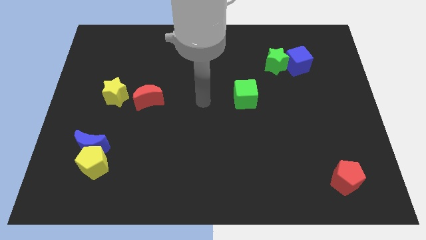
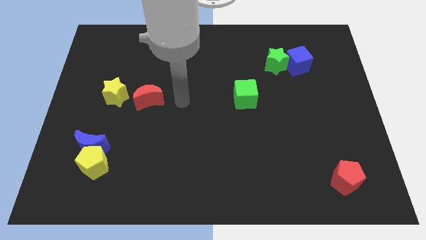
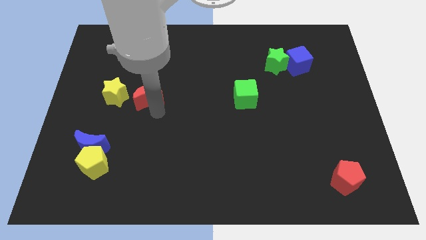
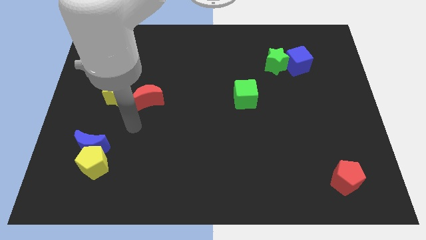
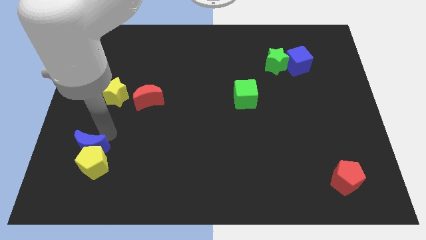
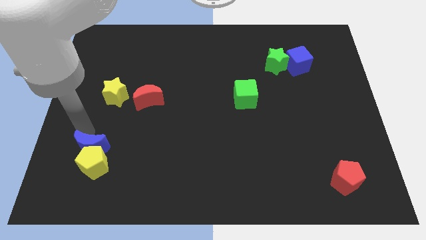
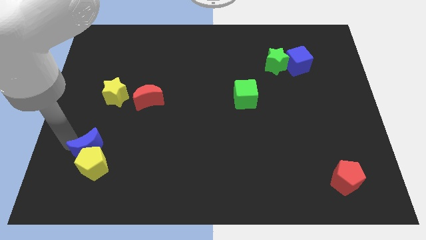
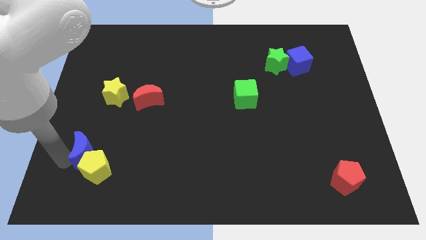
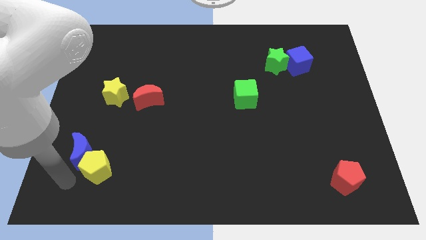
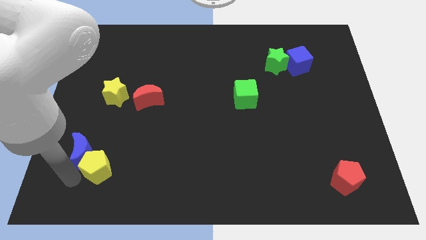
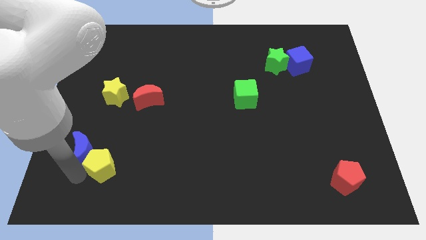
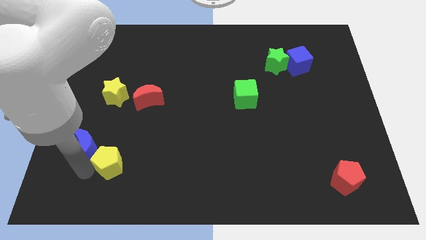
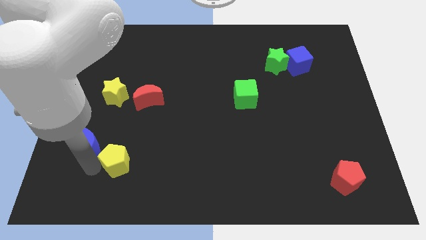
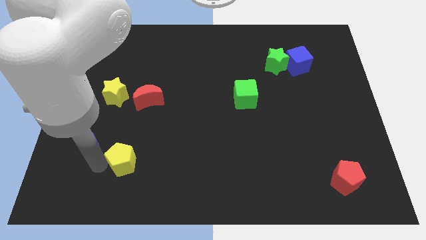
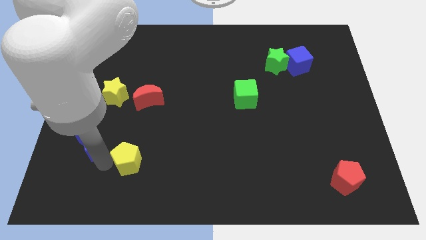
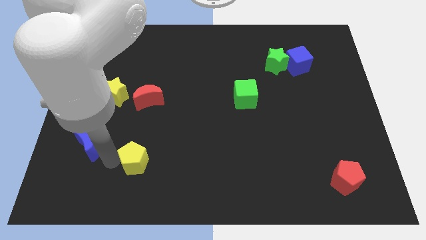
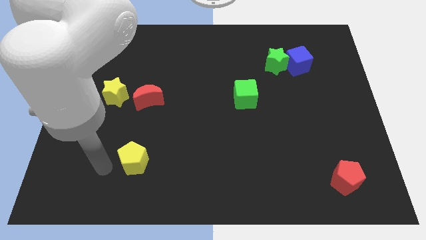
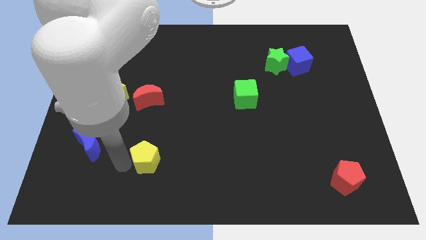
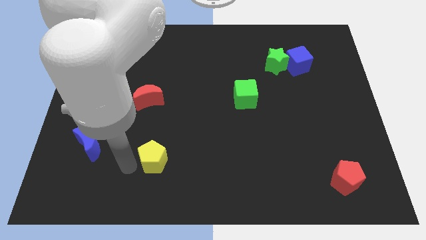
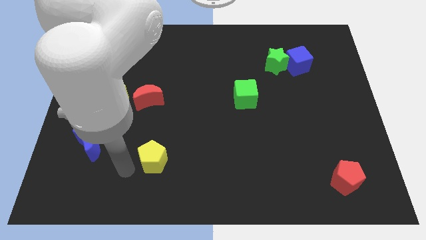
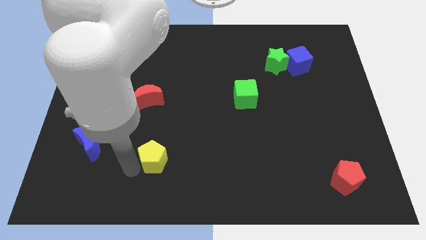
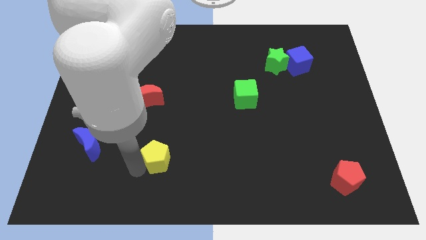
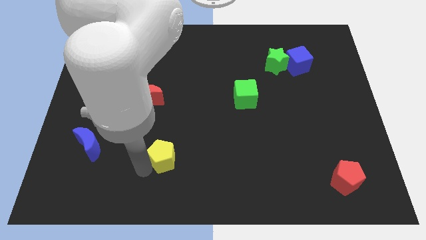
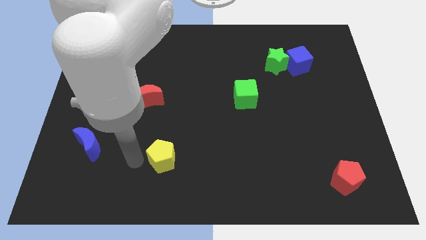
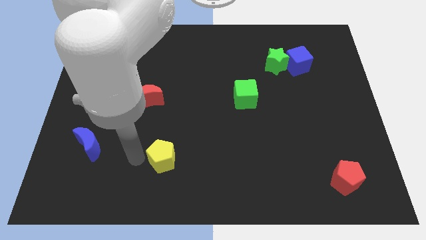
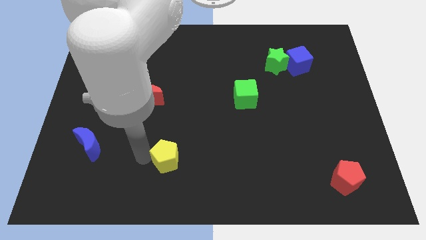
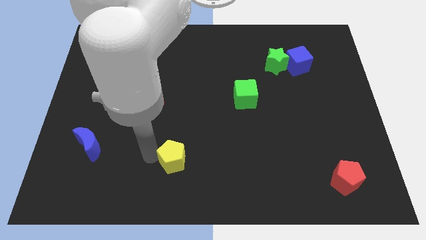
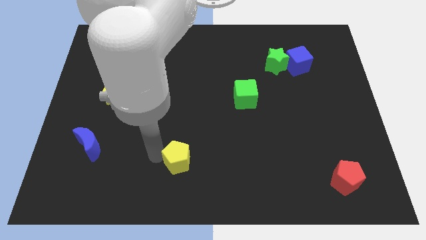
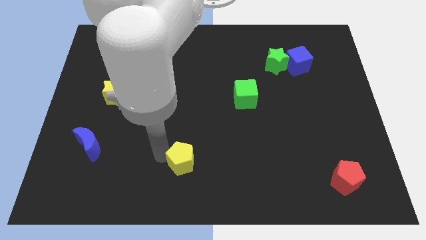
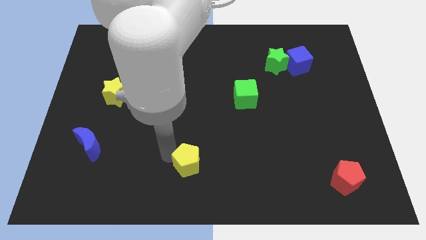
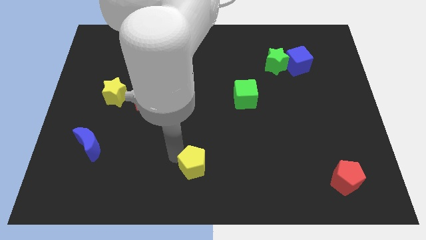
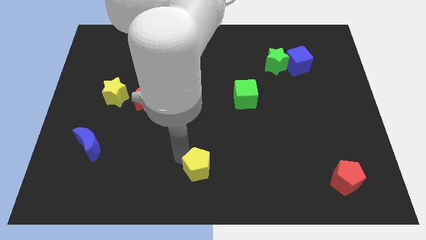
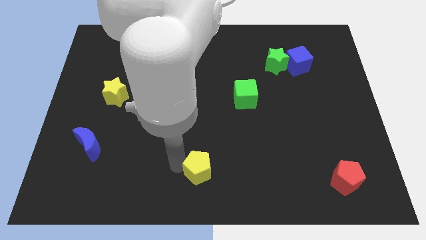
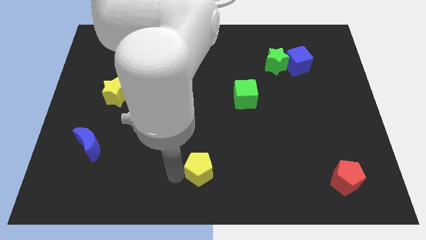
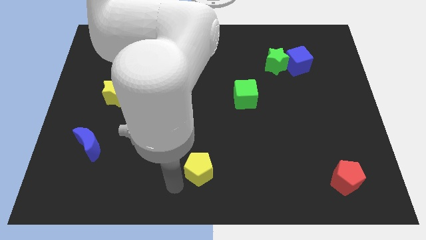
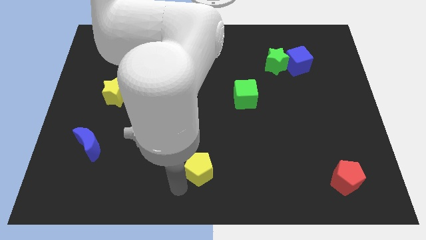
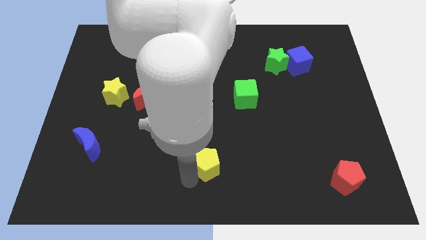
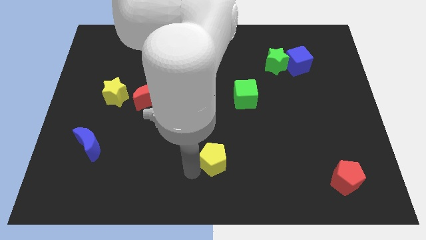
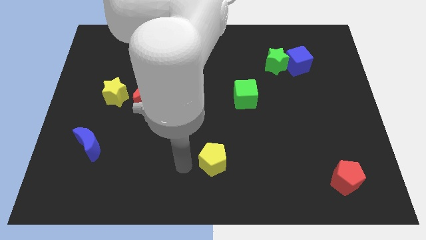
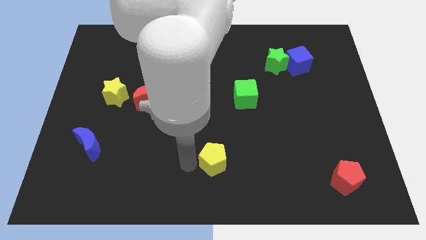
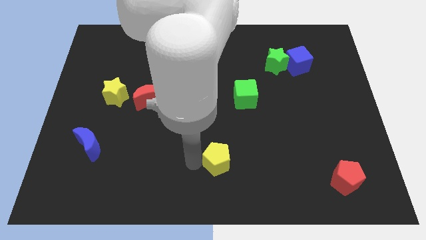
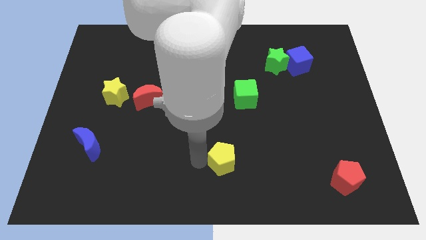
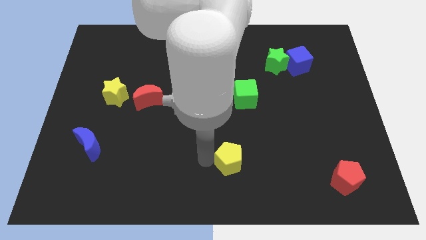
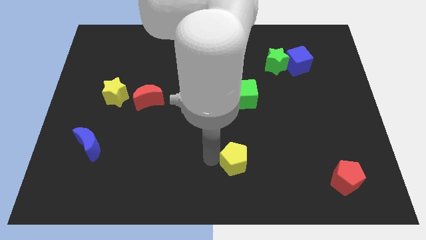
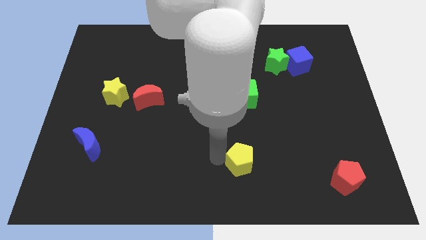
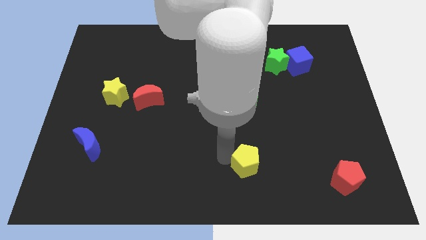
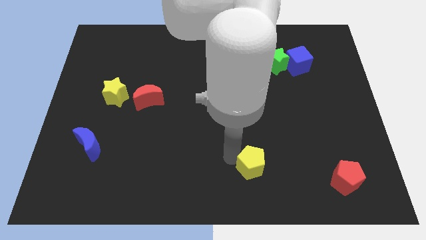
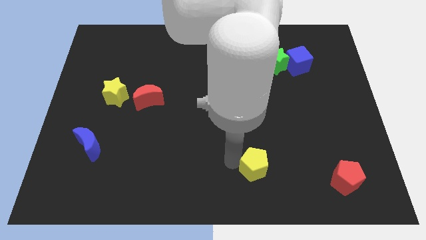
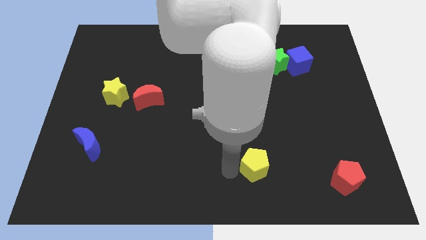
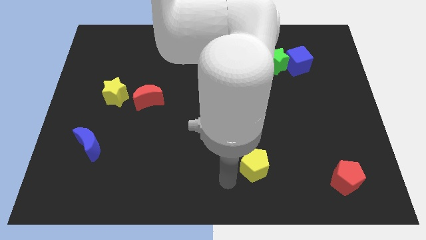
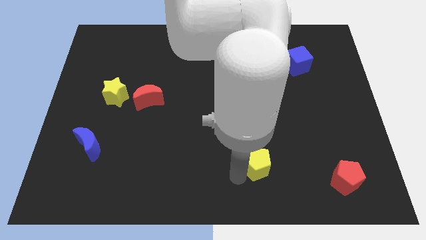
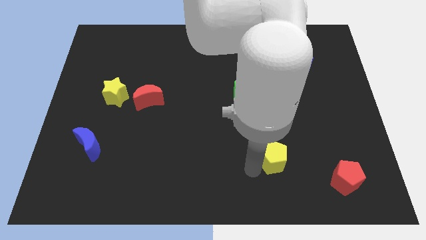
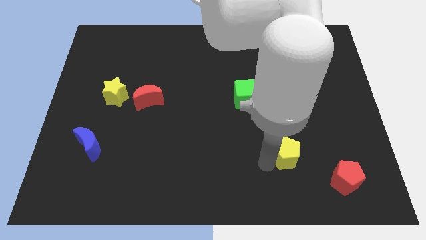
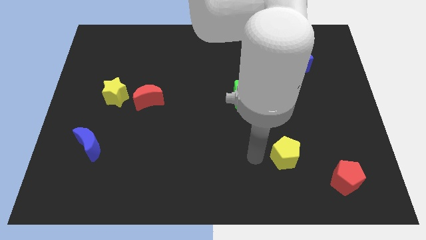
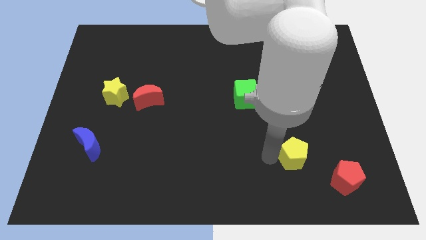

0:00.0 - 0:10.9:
put the yellow pentagon diagonally up and to the left of the red pentagon

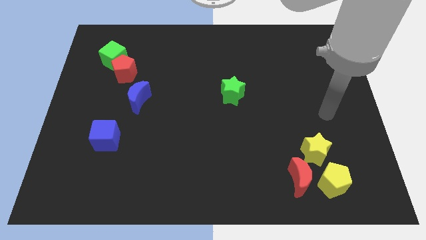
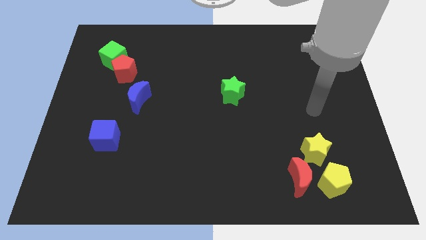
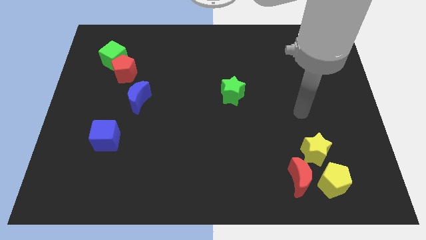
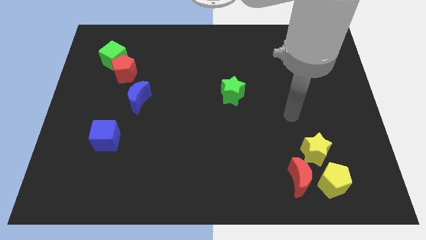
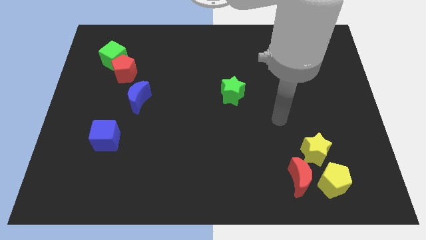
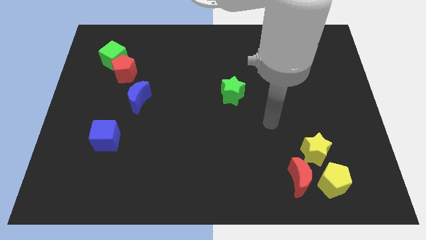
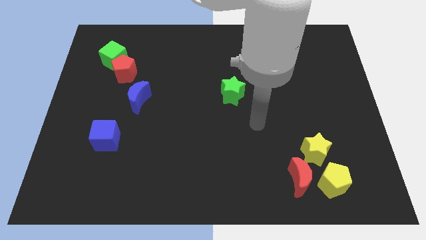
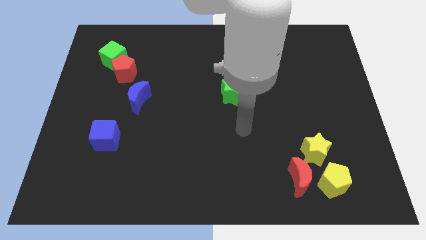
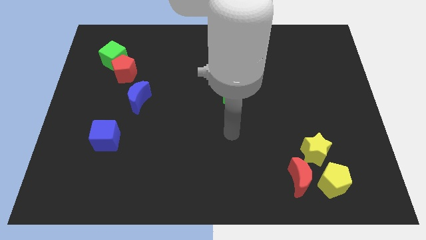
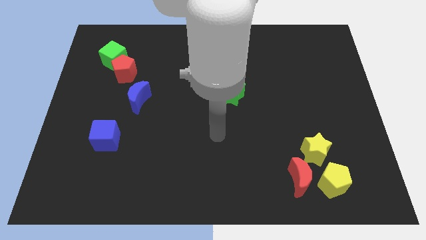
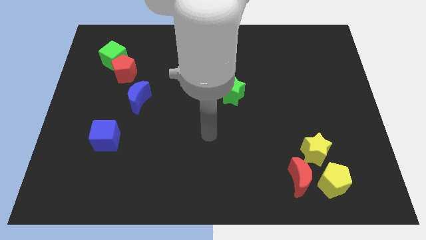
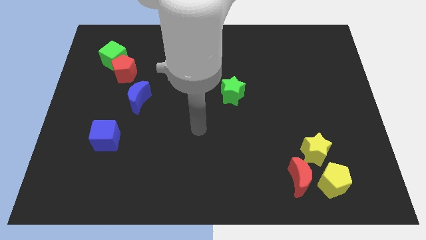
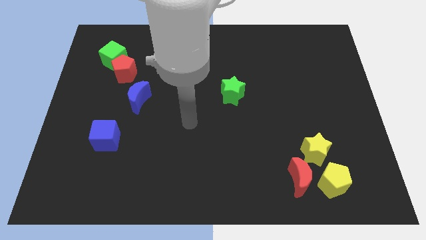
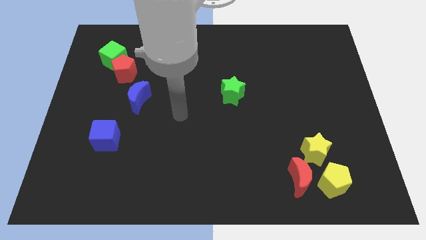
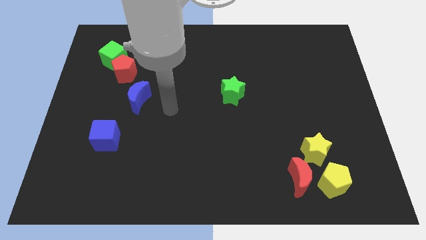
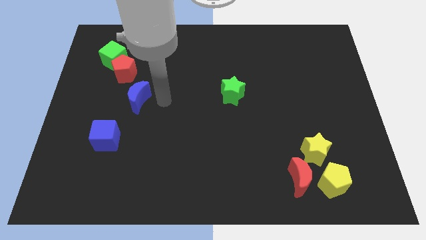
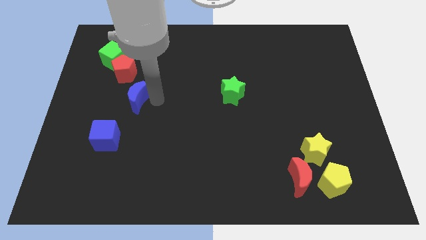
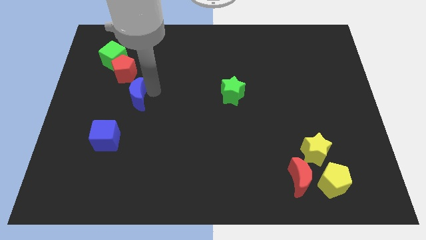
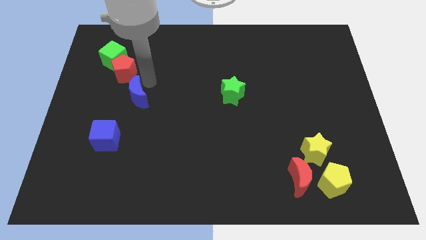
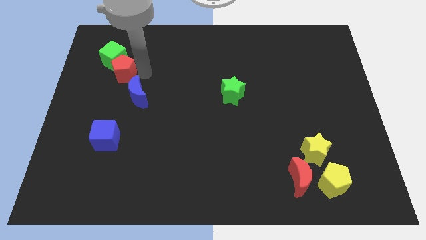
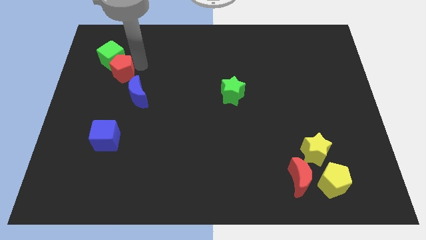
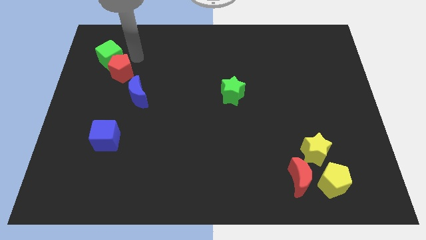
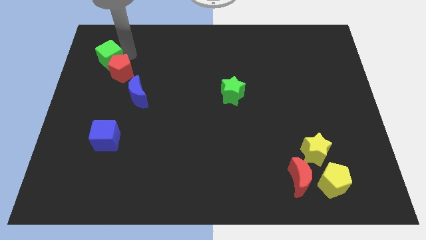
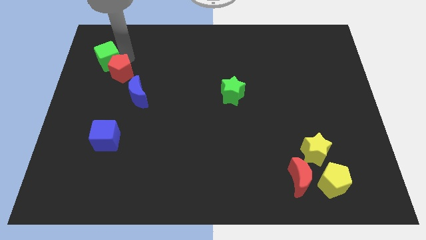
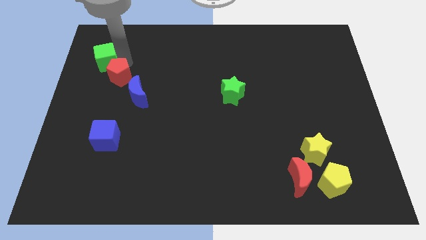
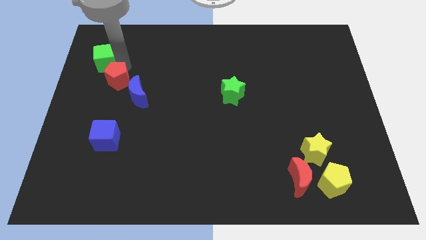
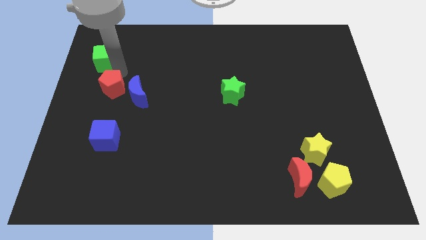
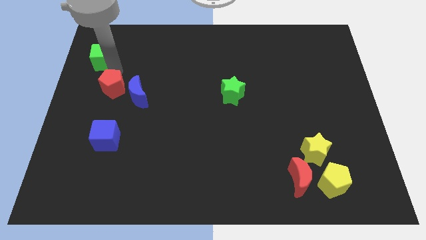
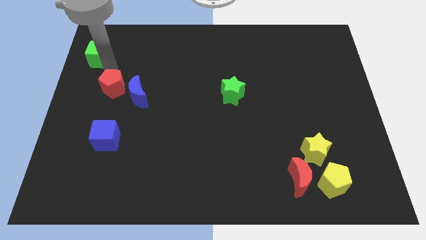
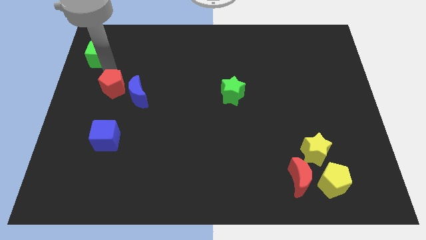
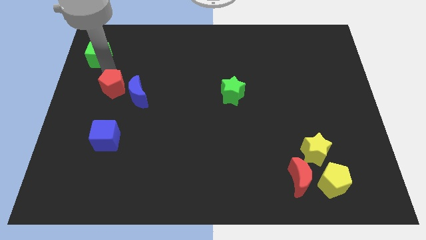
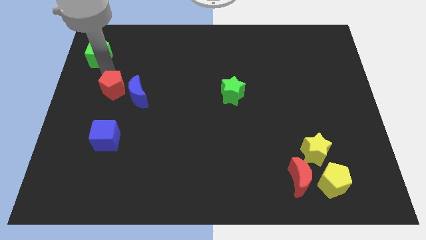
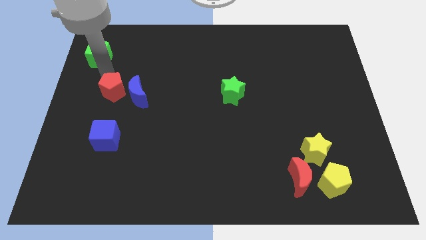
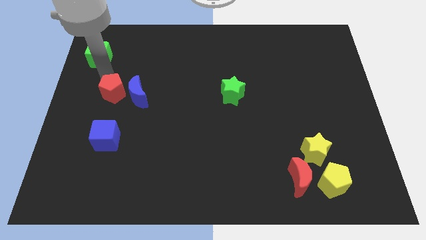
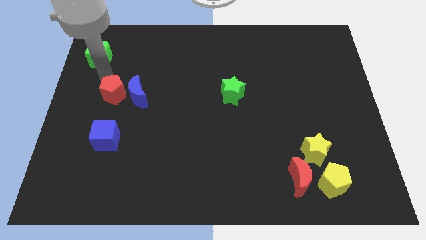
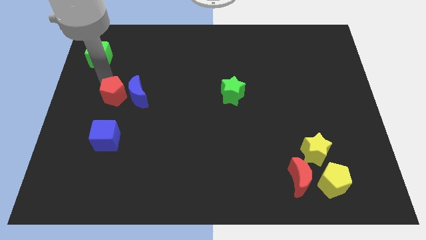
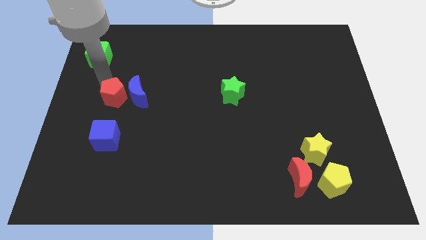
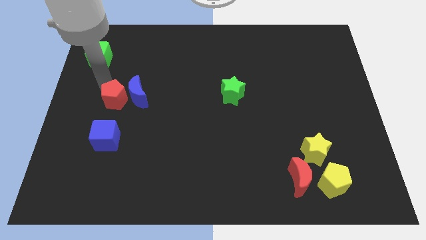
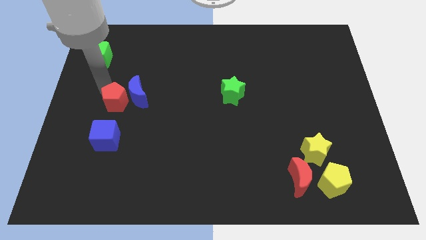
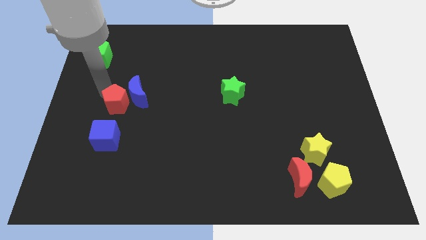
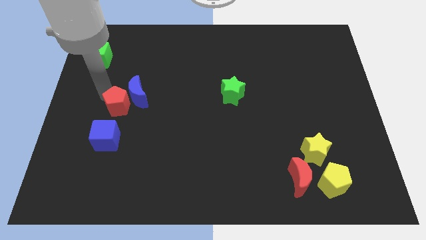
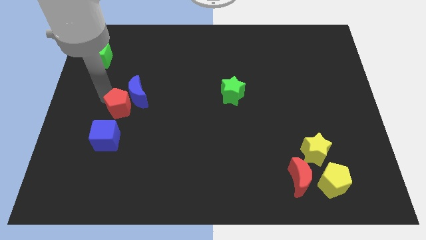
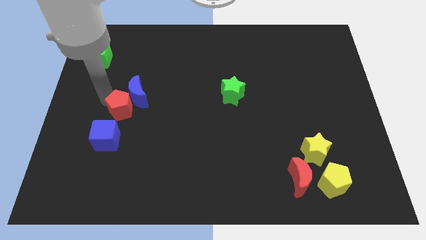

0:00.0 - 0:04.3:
put the red pentagon diagonally up and to the right of the blue cube
